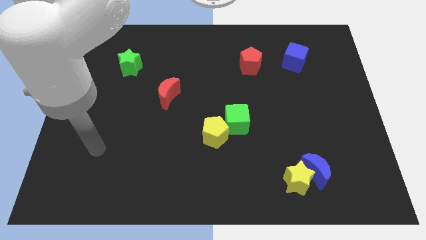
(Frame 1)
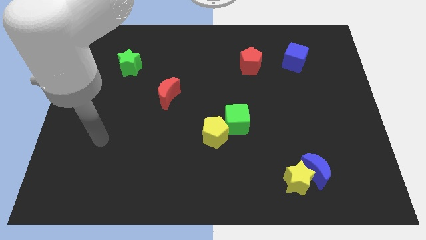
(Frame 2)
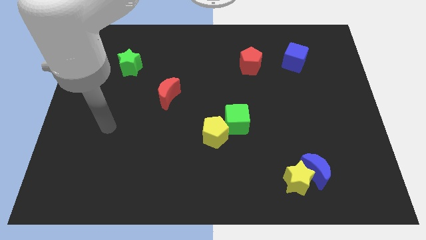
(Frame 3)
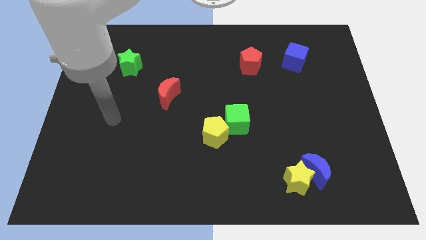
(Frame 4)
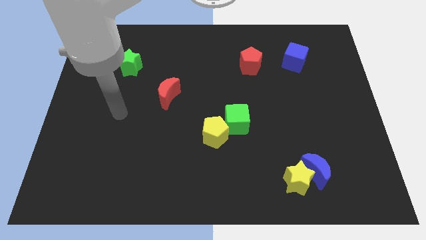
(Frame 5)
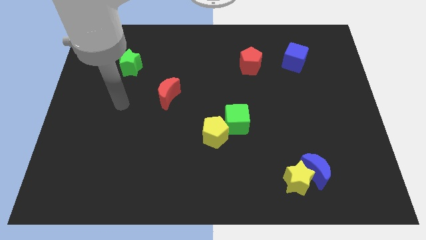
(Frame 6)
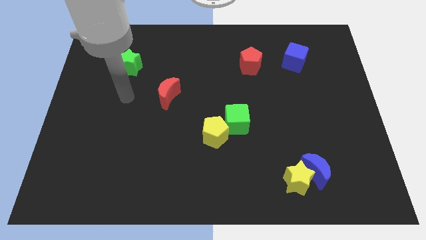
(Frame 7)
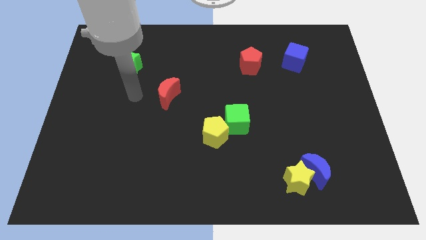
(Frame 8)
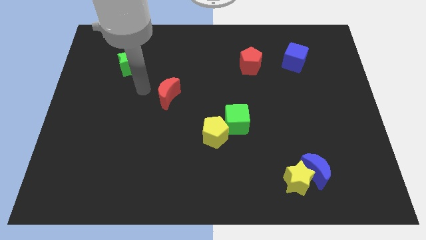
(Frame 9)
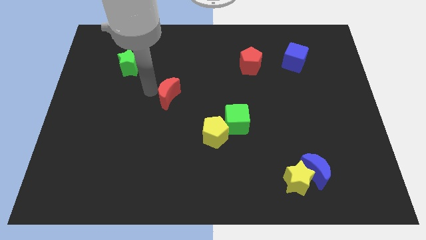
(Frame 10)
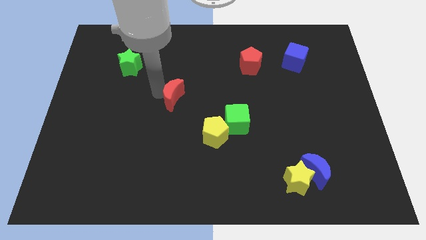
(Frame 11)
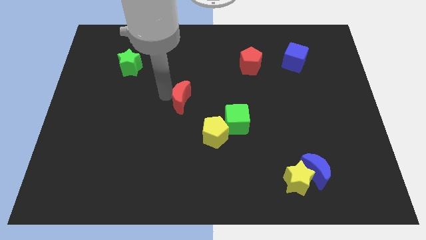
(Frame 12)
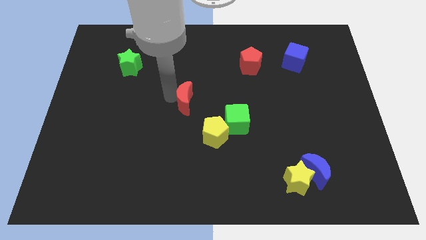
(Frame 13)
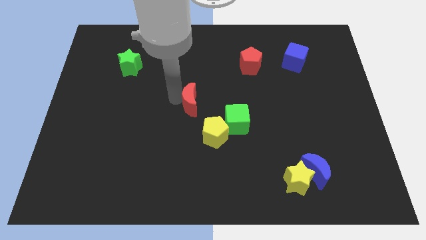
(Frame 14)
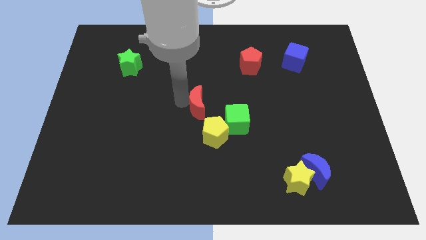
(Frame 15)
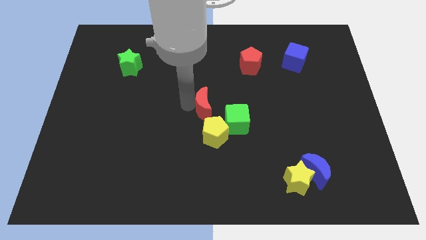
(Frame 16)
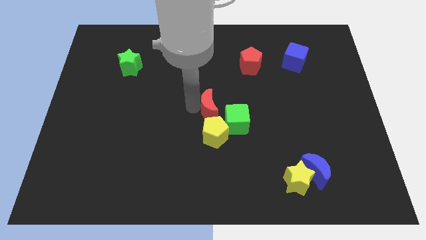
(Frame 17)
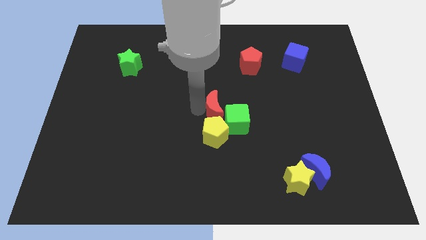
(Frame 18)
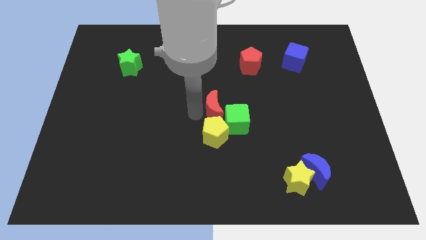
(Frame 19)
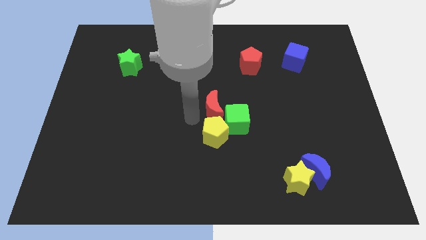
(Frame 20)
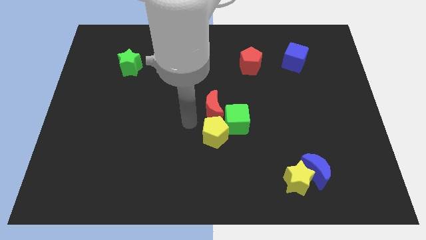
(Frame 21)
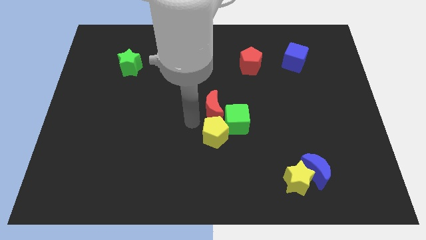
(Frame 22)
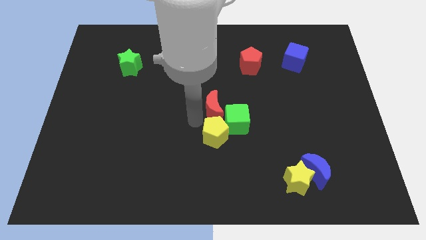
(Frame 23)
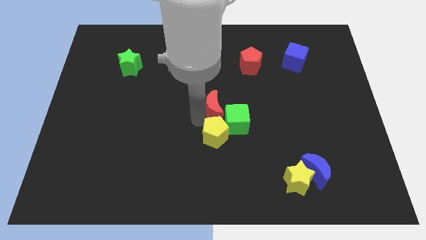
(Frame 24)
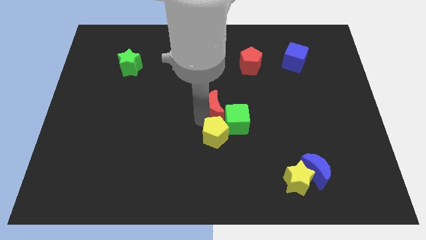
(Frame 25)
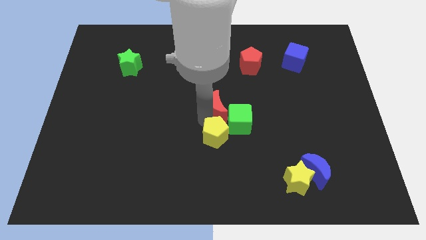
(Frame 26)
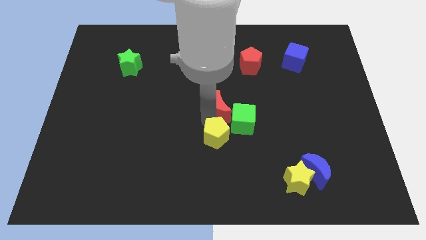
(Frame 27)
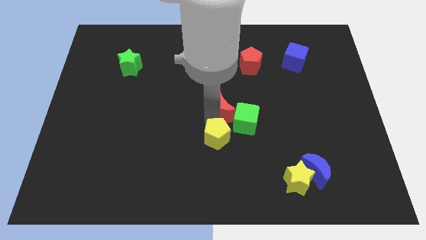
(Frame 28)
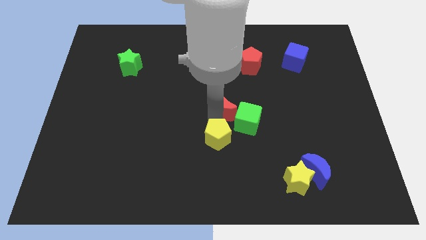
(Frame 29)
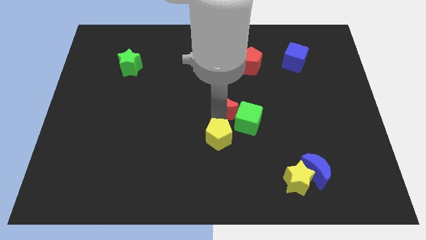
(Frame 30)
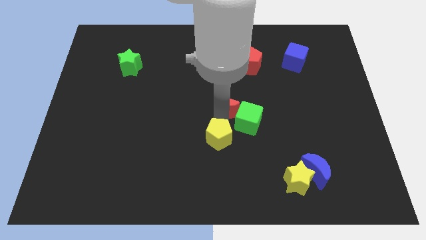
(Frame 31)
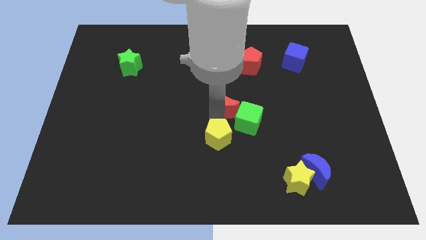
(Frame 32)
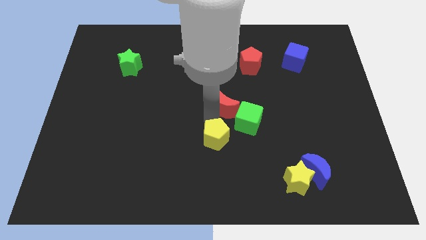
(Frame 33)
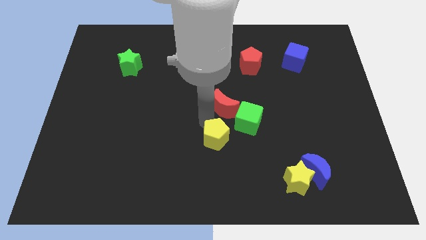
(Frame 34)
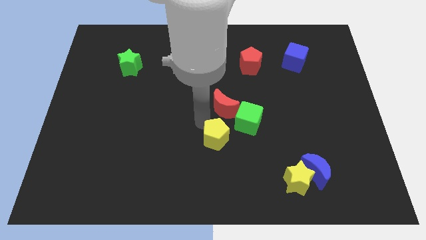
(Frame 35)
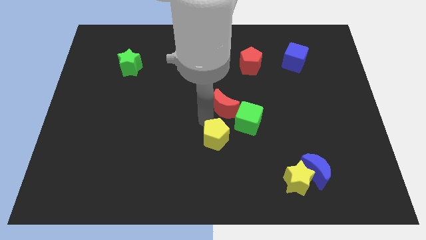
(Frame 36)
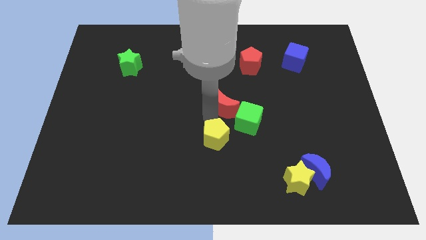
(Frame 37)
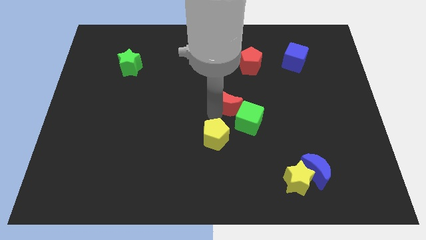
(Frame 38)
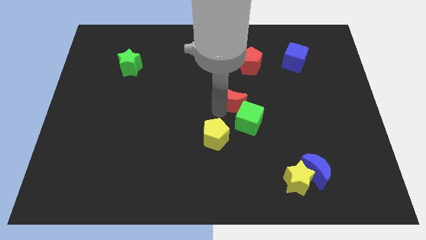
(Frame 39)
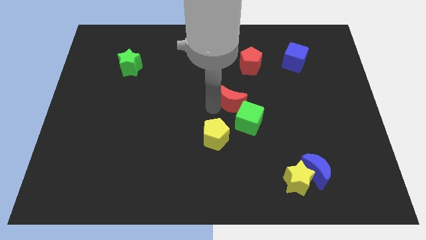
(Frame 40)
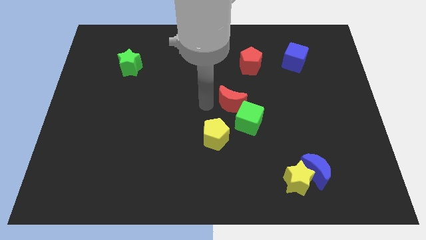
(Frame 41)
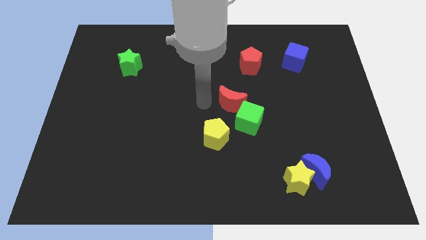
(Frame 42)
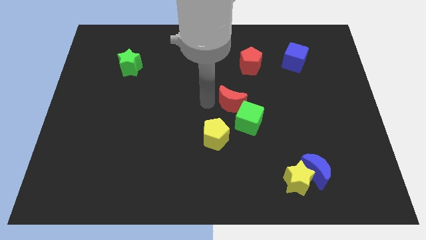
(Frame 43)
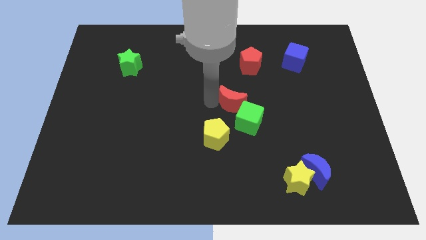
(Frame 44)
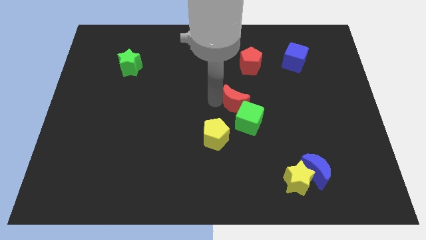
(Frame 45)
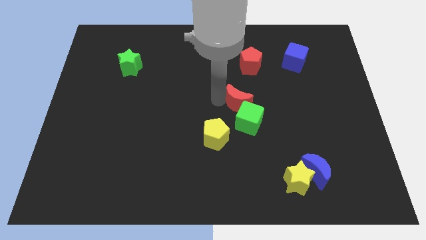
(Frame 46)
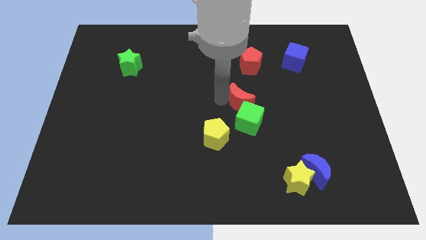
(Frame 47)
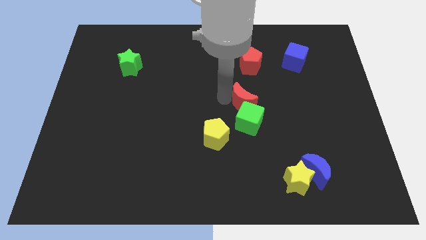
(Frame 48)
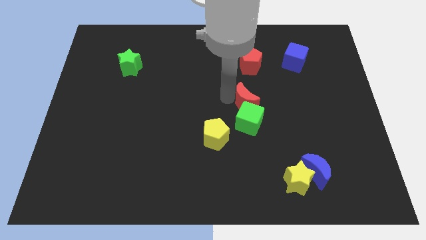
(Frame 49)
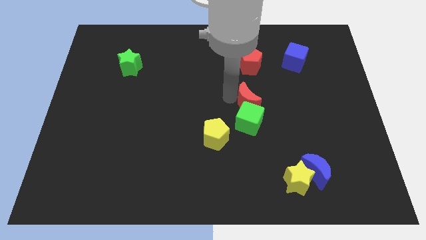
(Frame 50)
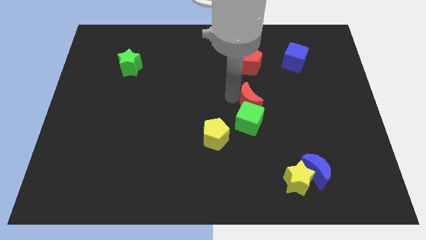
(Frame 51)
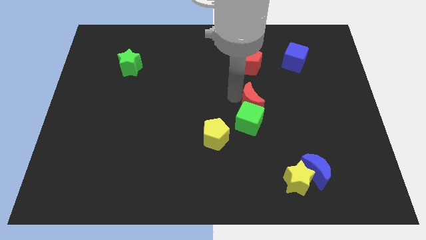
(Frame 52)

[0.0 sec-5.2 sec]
slide the red moon right

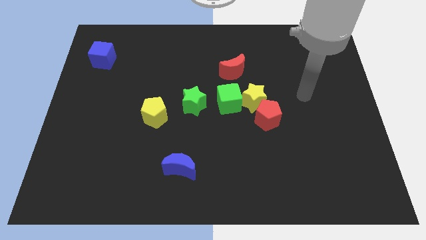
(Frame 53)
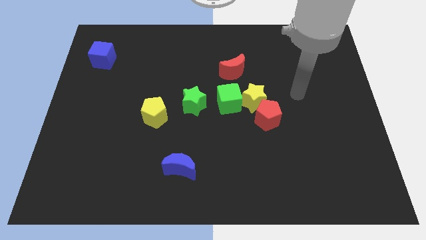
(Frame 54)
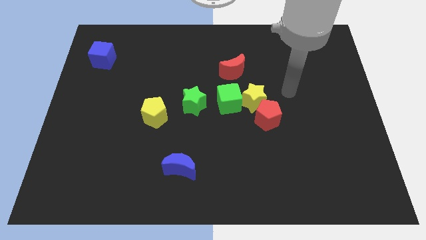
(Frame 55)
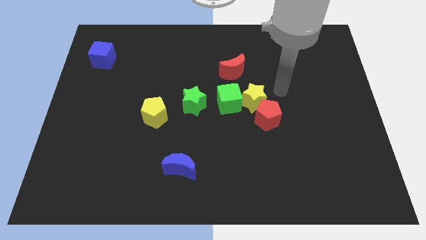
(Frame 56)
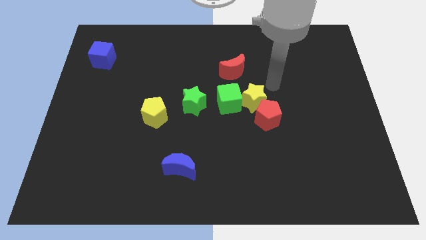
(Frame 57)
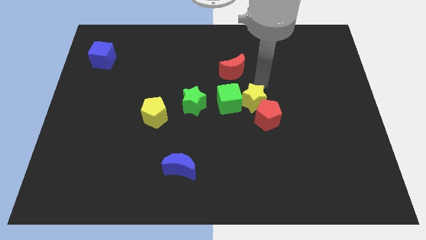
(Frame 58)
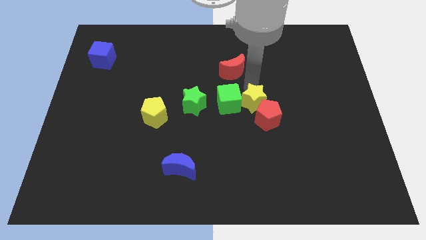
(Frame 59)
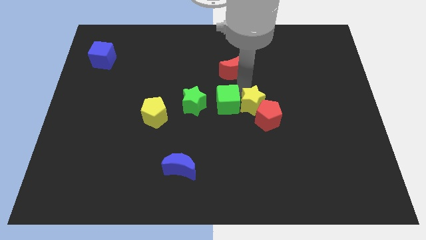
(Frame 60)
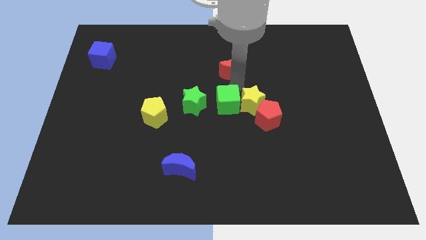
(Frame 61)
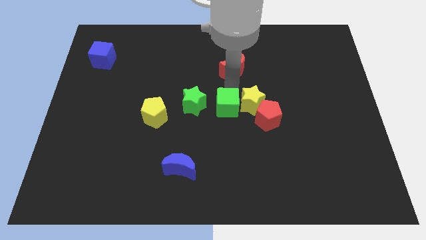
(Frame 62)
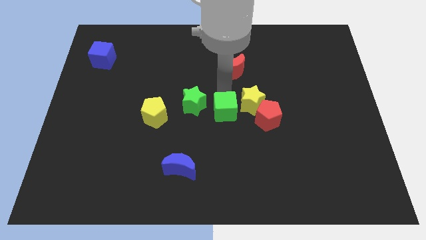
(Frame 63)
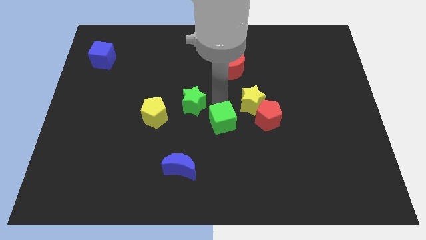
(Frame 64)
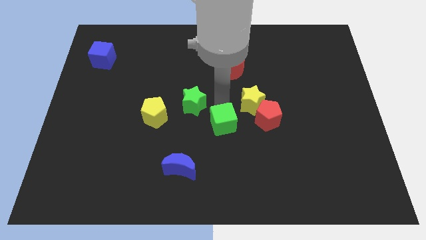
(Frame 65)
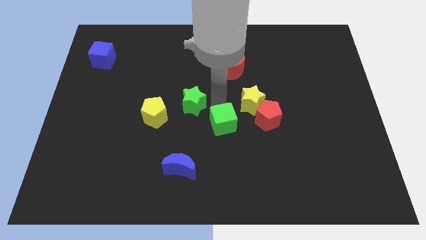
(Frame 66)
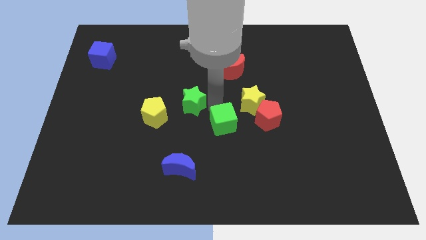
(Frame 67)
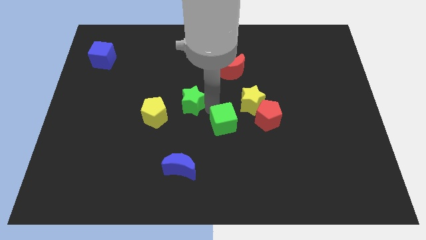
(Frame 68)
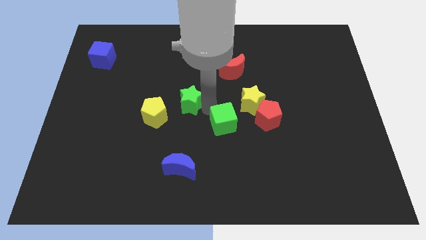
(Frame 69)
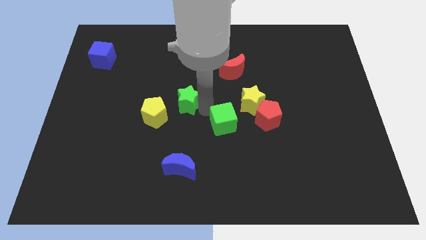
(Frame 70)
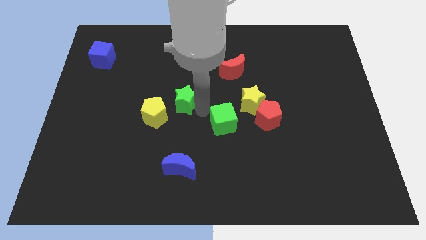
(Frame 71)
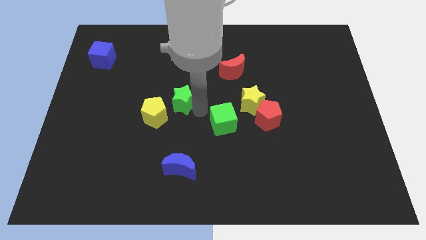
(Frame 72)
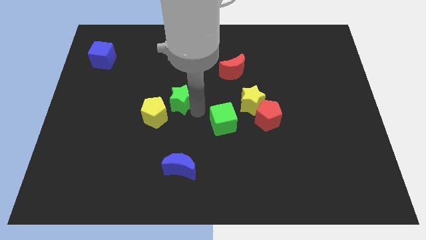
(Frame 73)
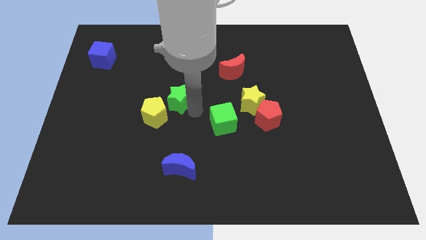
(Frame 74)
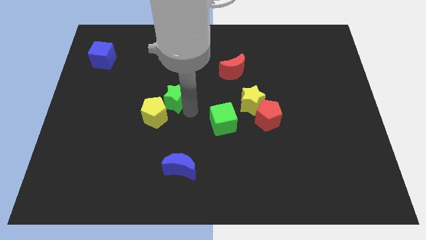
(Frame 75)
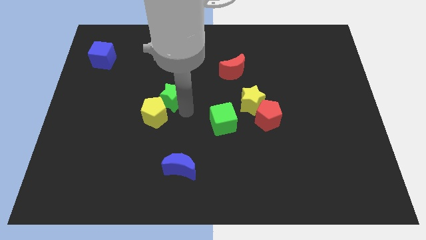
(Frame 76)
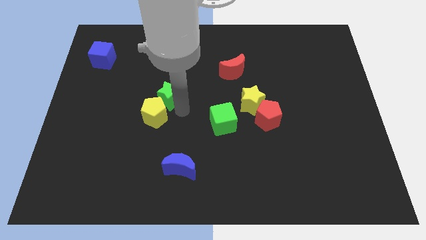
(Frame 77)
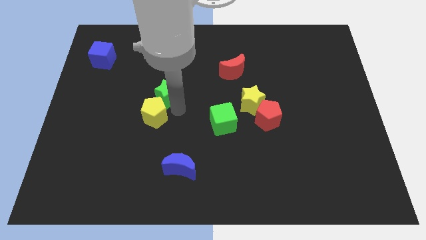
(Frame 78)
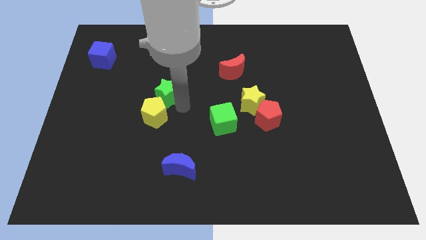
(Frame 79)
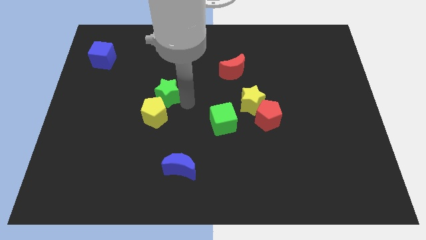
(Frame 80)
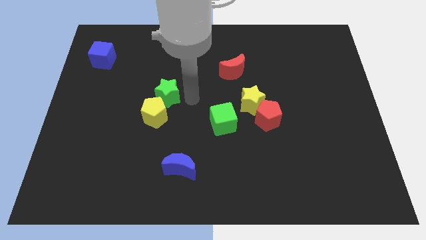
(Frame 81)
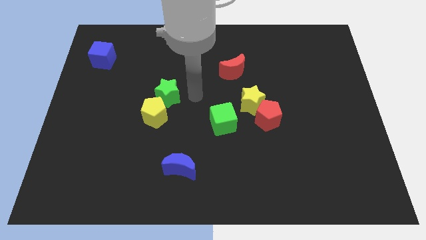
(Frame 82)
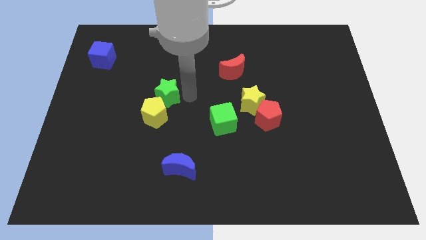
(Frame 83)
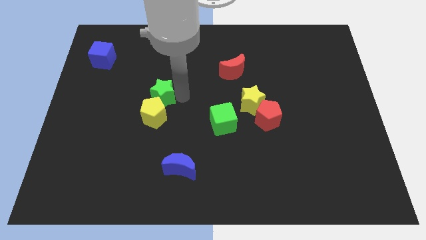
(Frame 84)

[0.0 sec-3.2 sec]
move the green star a little bit left
